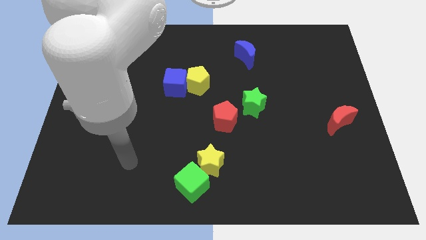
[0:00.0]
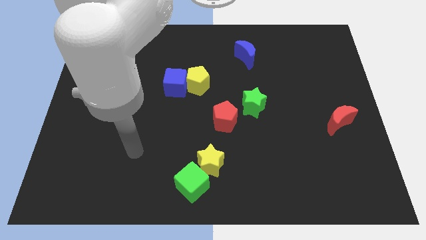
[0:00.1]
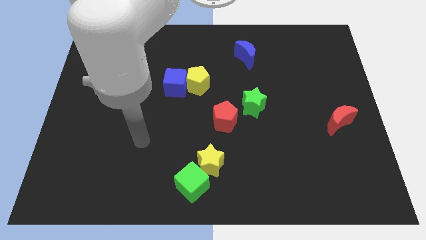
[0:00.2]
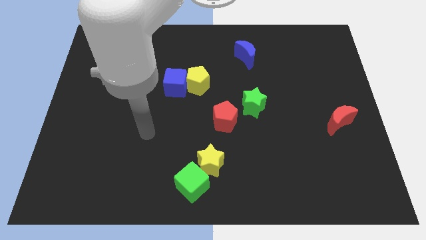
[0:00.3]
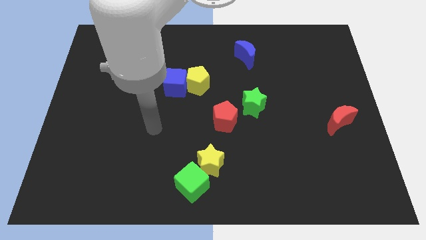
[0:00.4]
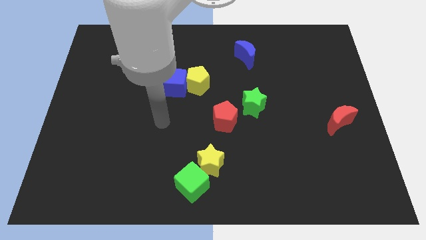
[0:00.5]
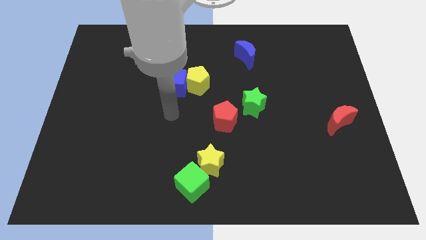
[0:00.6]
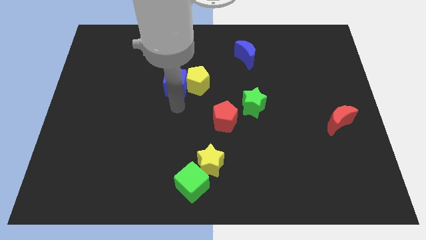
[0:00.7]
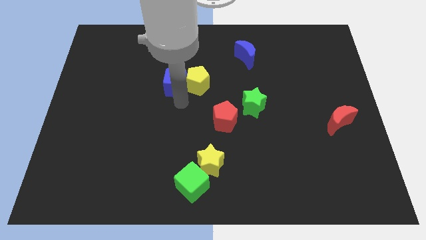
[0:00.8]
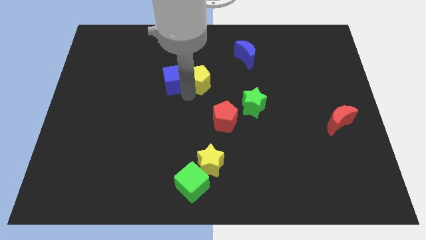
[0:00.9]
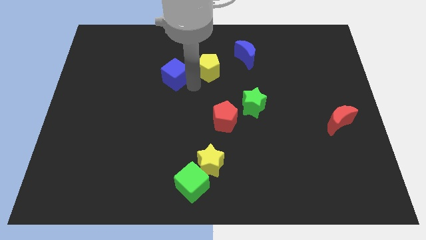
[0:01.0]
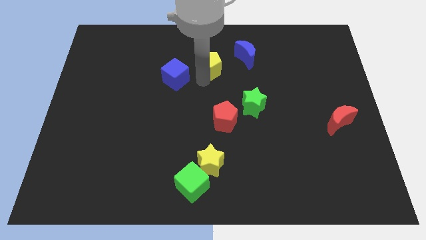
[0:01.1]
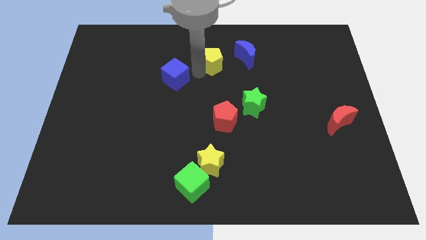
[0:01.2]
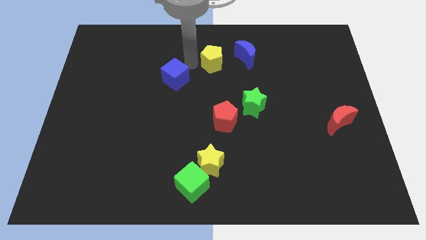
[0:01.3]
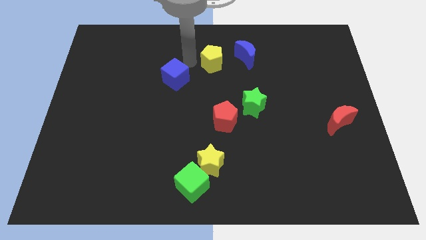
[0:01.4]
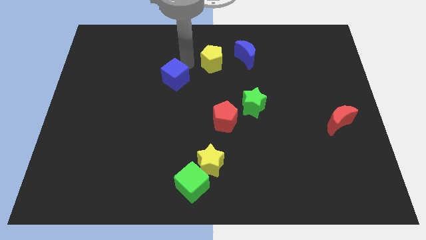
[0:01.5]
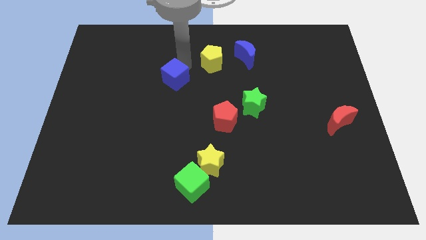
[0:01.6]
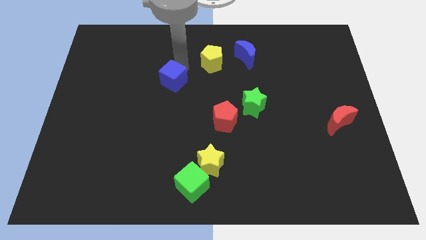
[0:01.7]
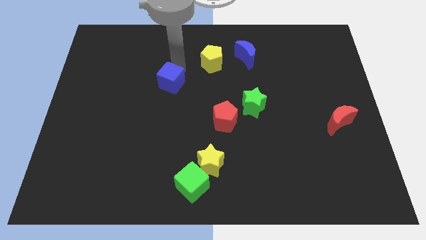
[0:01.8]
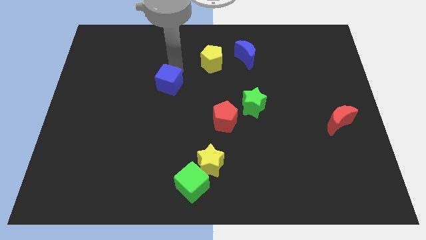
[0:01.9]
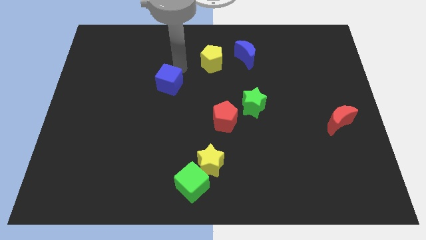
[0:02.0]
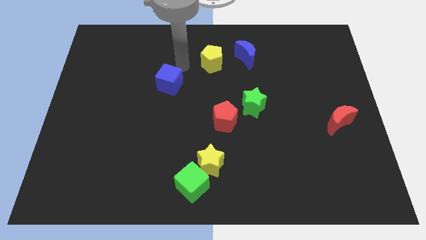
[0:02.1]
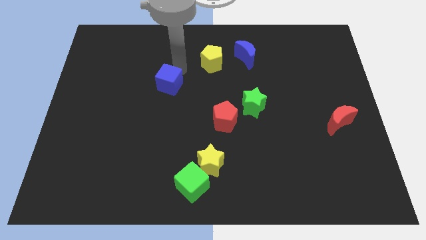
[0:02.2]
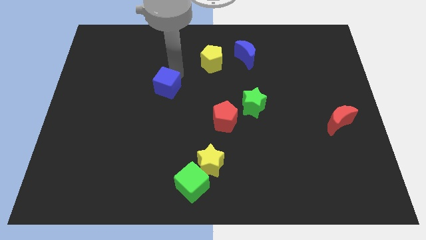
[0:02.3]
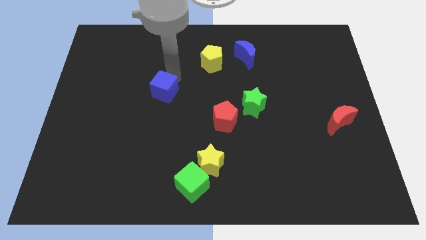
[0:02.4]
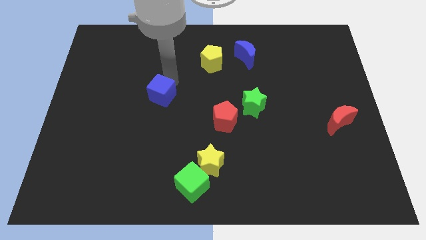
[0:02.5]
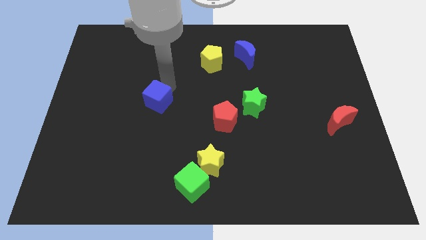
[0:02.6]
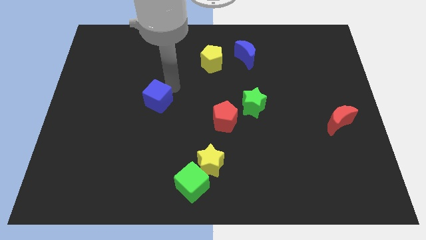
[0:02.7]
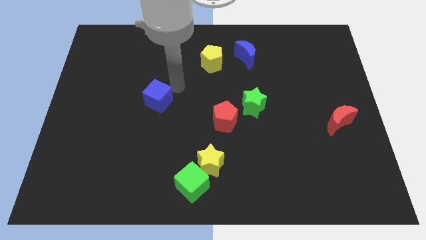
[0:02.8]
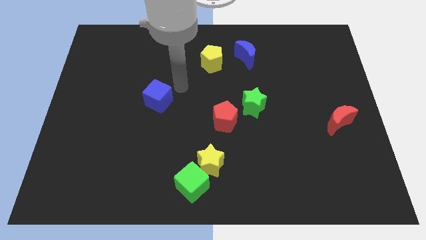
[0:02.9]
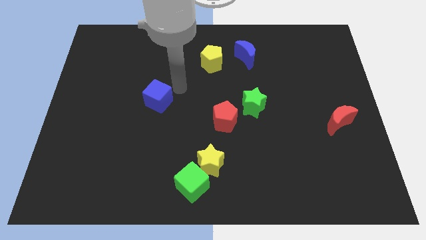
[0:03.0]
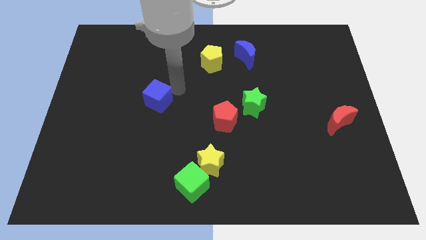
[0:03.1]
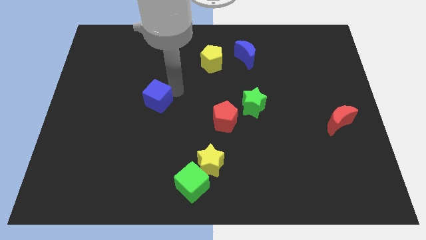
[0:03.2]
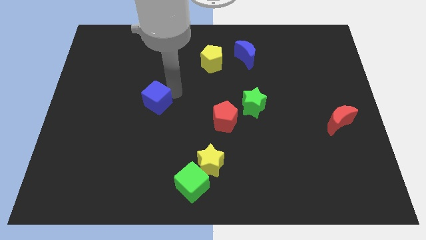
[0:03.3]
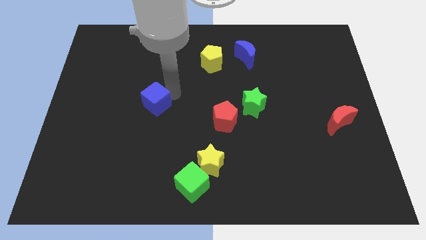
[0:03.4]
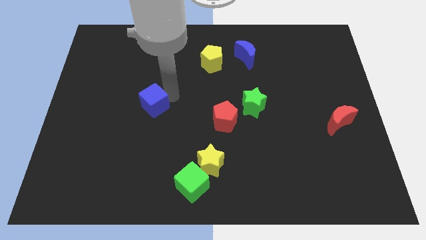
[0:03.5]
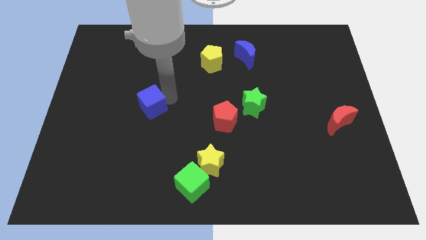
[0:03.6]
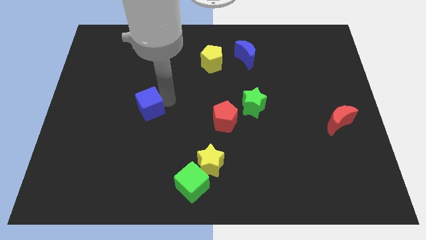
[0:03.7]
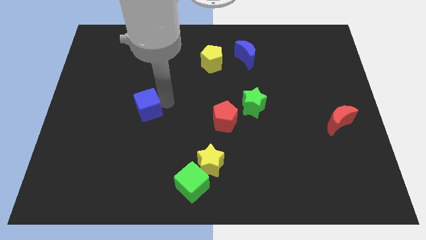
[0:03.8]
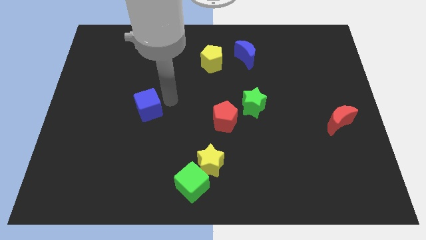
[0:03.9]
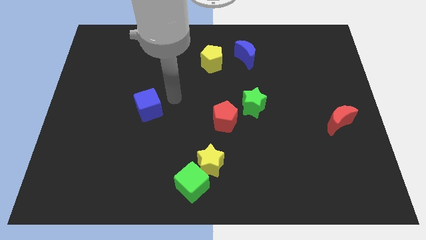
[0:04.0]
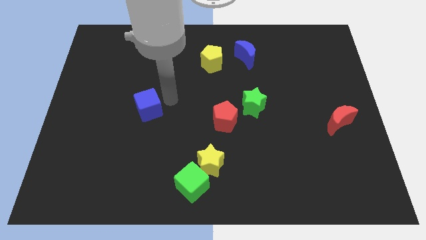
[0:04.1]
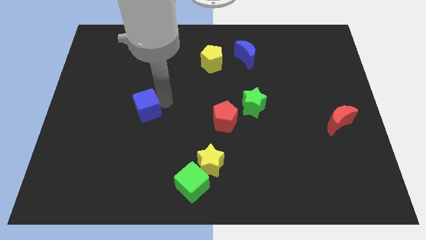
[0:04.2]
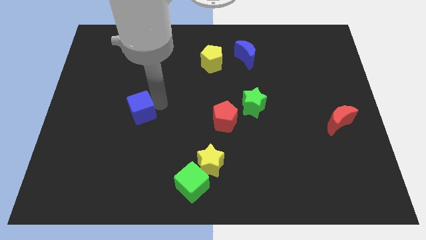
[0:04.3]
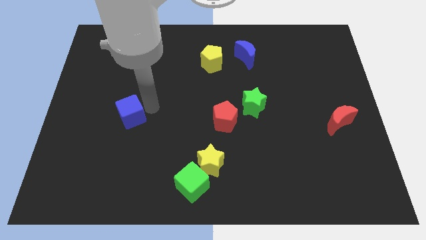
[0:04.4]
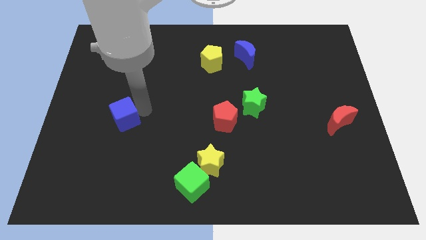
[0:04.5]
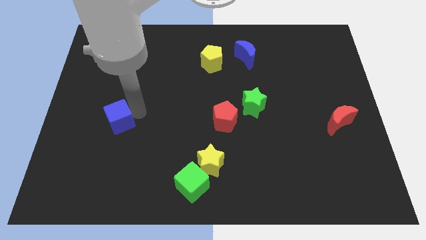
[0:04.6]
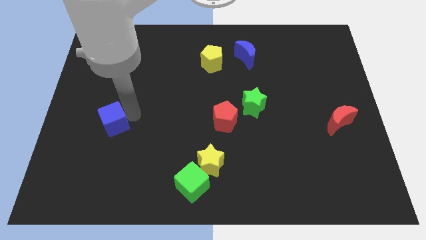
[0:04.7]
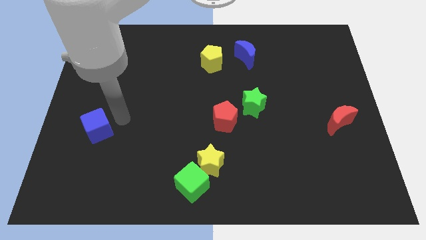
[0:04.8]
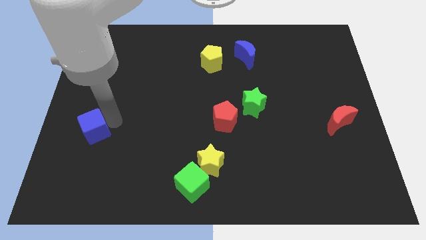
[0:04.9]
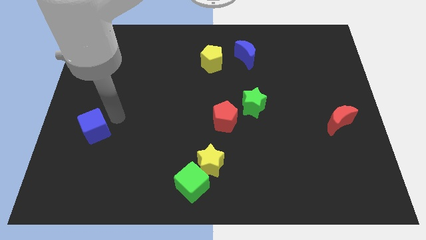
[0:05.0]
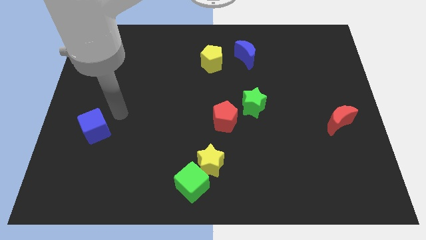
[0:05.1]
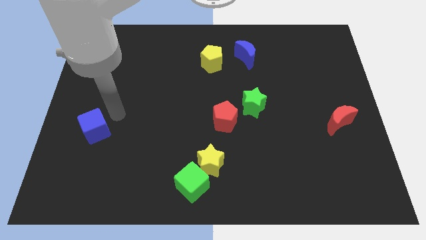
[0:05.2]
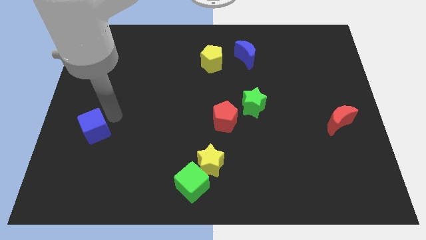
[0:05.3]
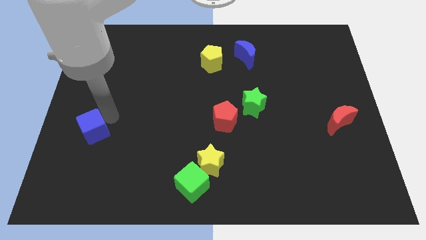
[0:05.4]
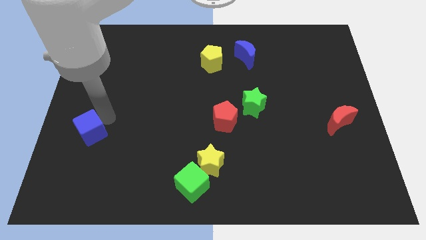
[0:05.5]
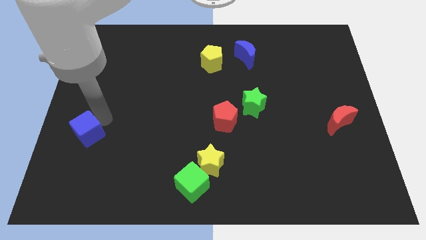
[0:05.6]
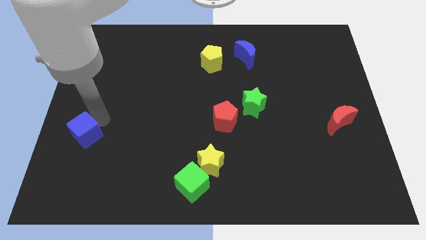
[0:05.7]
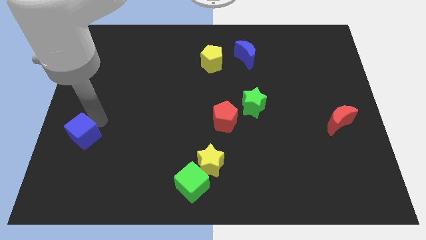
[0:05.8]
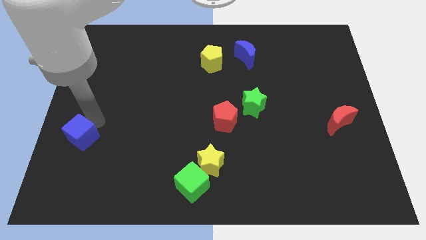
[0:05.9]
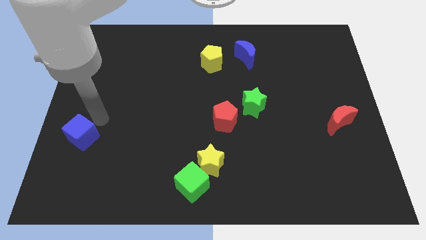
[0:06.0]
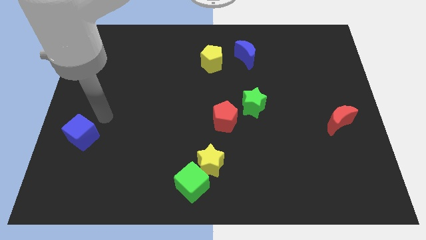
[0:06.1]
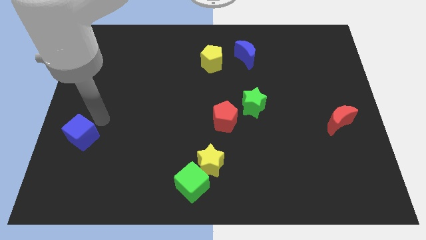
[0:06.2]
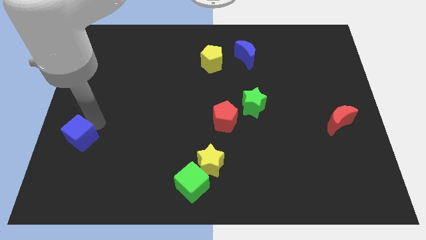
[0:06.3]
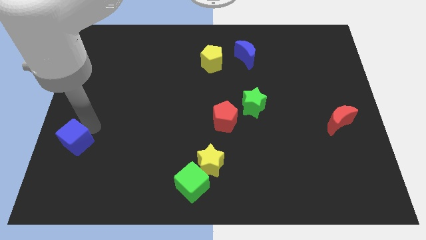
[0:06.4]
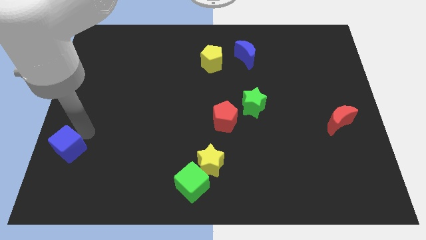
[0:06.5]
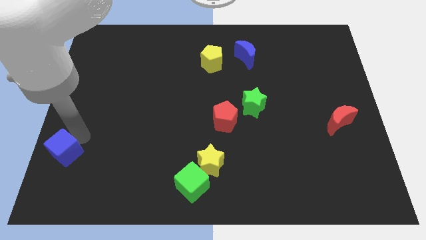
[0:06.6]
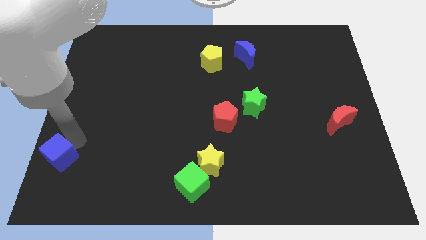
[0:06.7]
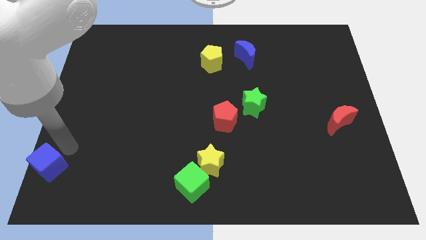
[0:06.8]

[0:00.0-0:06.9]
push the blue cube to the lower left corner

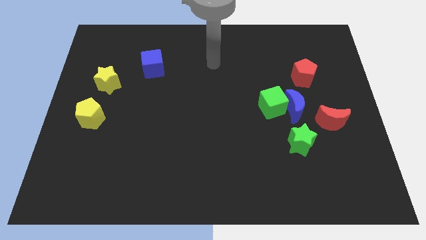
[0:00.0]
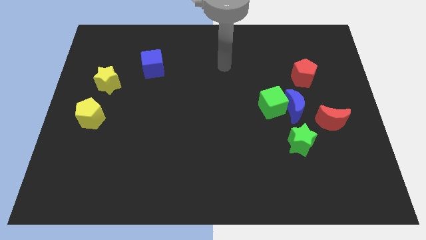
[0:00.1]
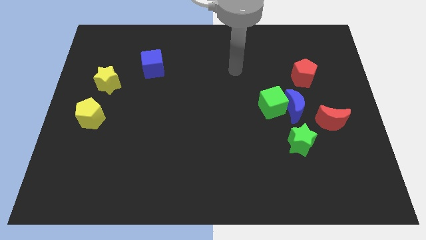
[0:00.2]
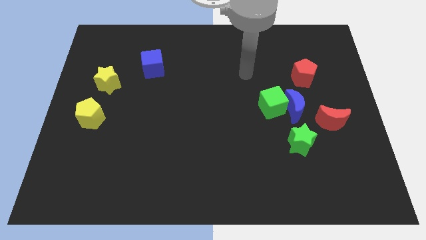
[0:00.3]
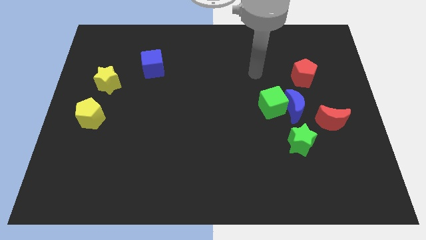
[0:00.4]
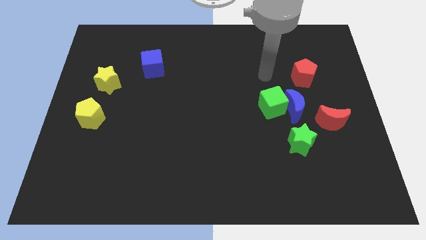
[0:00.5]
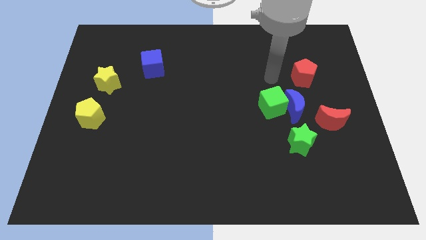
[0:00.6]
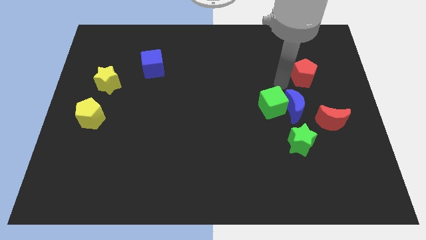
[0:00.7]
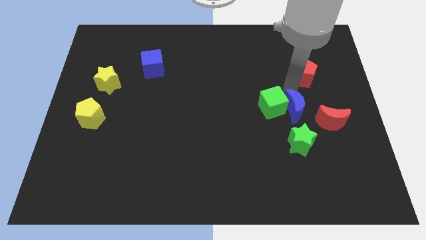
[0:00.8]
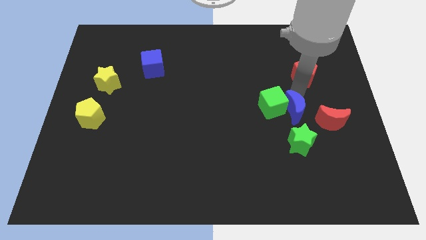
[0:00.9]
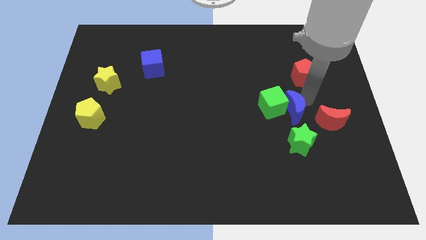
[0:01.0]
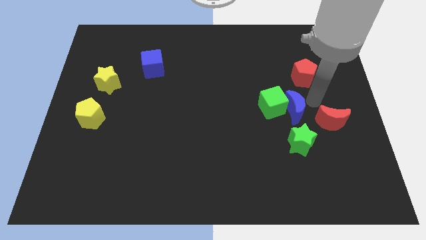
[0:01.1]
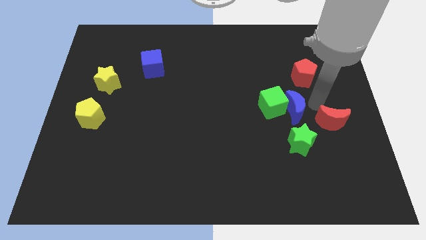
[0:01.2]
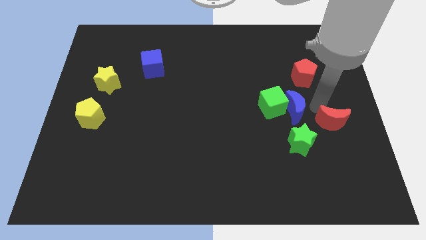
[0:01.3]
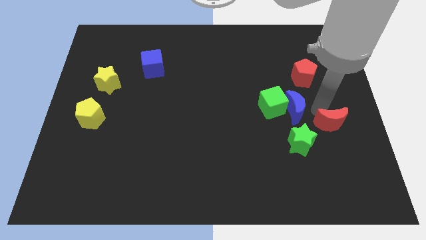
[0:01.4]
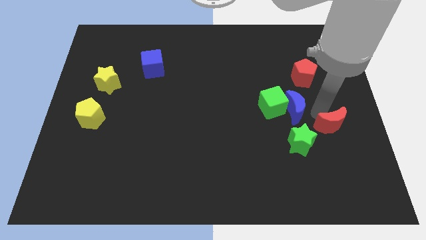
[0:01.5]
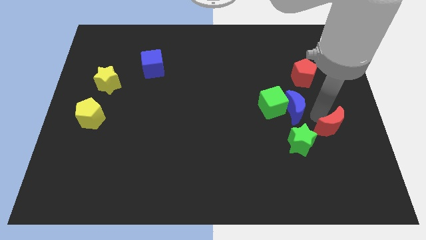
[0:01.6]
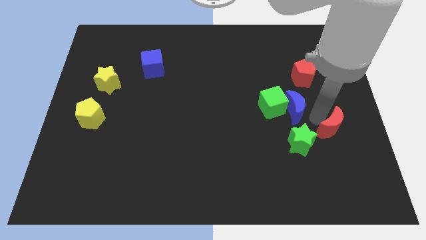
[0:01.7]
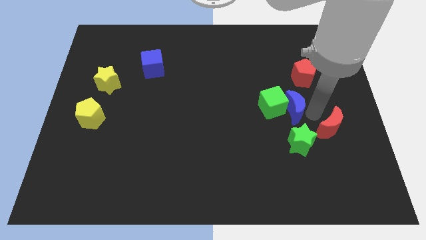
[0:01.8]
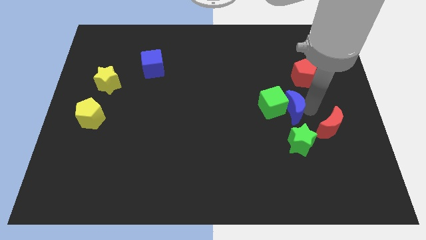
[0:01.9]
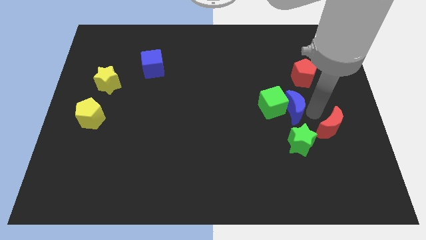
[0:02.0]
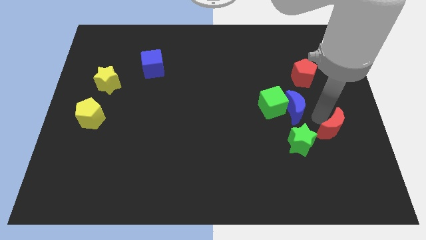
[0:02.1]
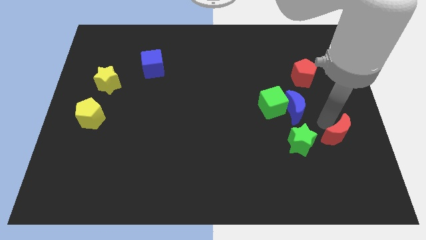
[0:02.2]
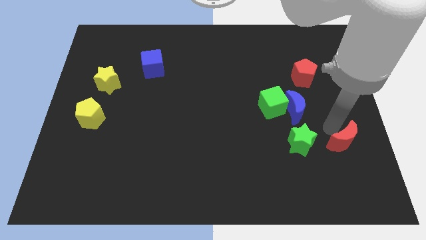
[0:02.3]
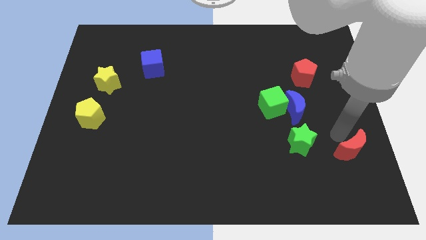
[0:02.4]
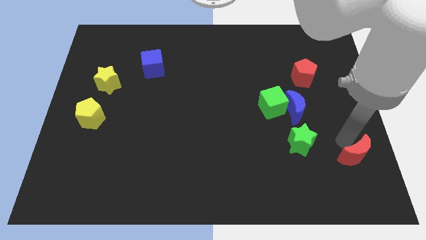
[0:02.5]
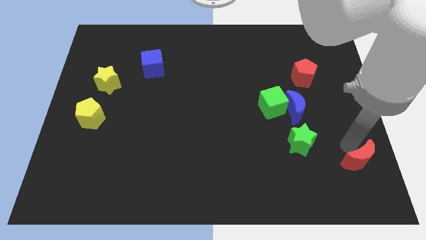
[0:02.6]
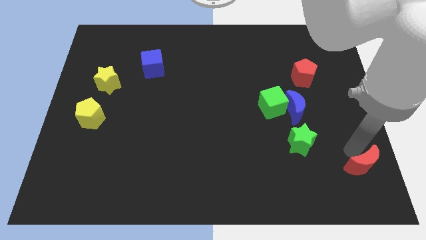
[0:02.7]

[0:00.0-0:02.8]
put the red moon to the lower right corner
